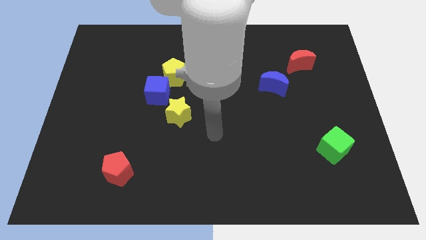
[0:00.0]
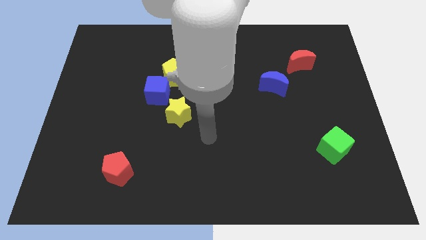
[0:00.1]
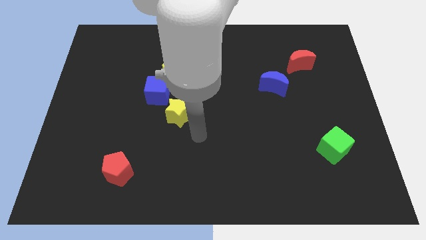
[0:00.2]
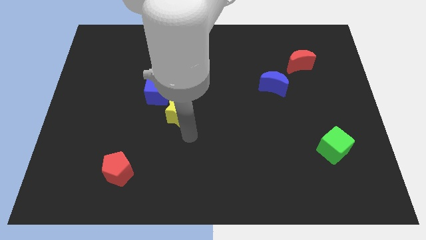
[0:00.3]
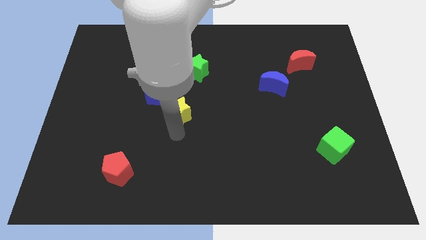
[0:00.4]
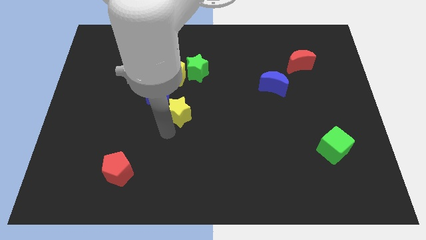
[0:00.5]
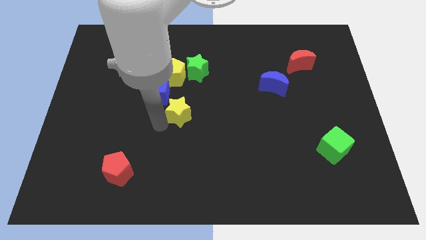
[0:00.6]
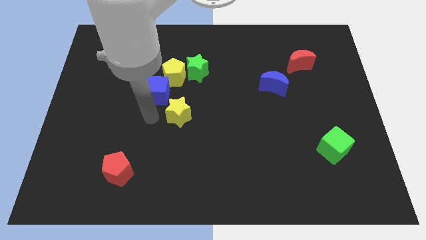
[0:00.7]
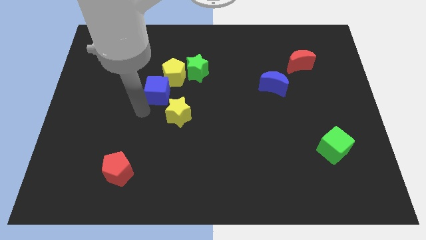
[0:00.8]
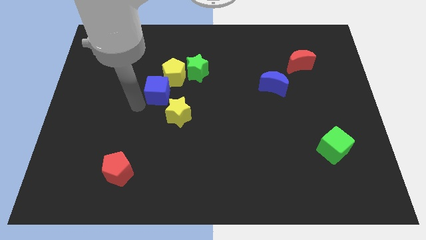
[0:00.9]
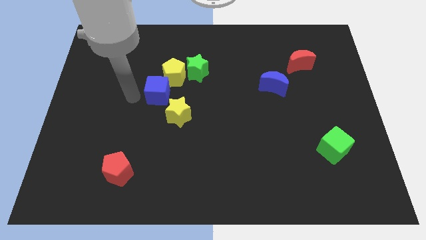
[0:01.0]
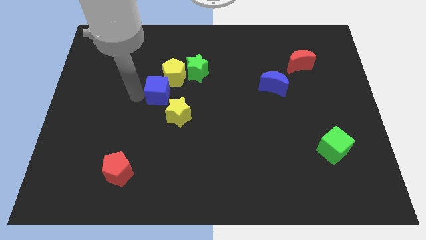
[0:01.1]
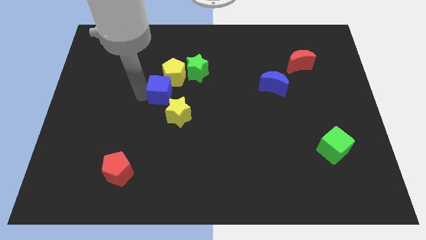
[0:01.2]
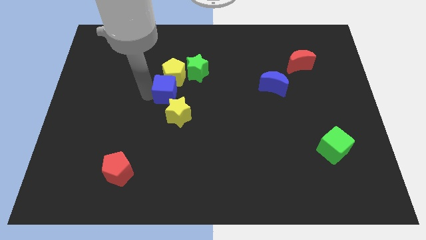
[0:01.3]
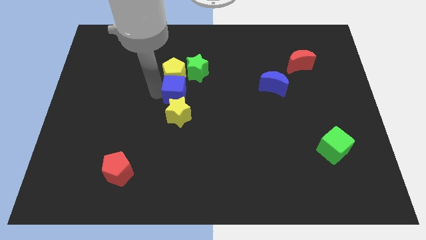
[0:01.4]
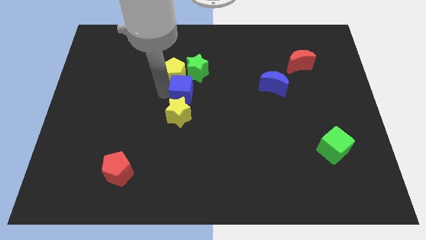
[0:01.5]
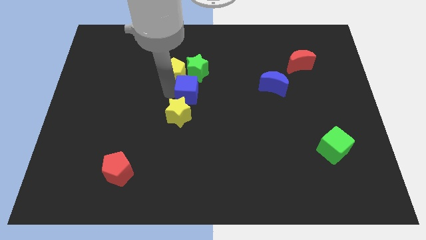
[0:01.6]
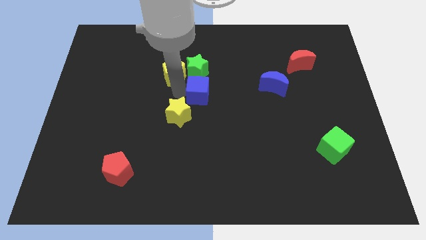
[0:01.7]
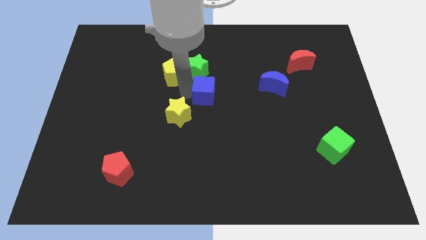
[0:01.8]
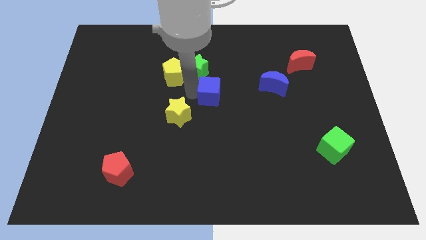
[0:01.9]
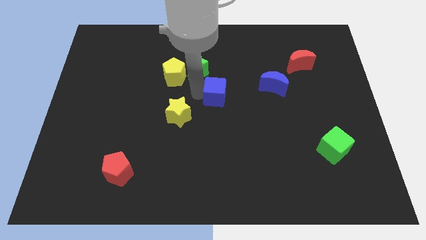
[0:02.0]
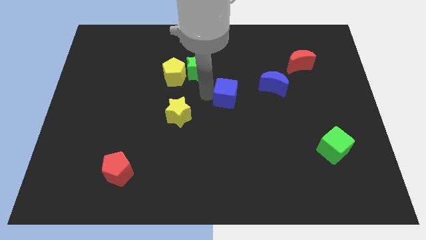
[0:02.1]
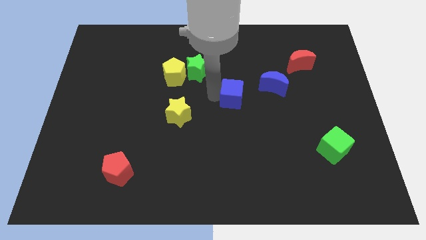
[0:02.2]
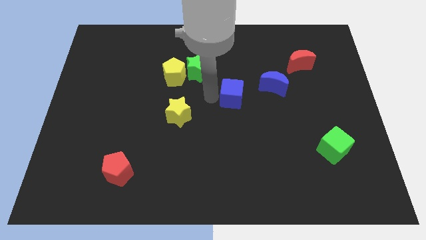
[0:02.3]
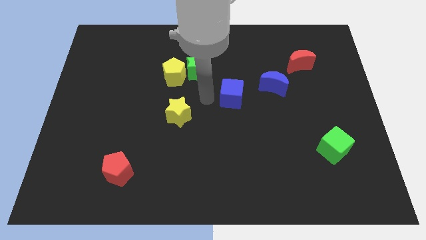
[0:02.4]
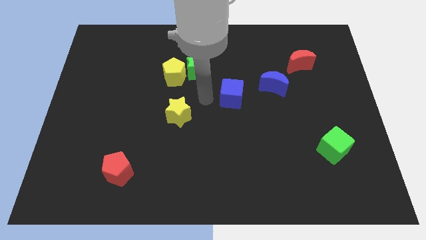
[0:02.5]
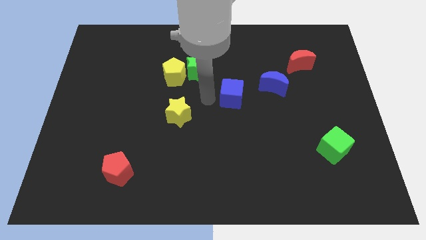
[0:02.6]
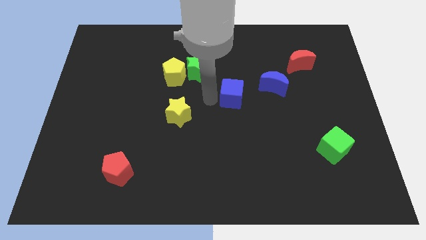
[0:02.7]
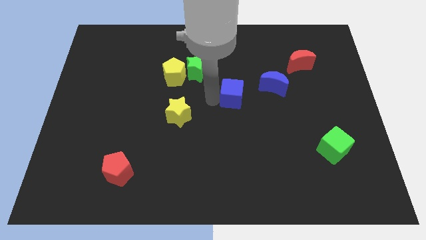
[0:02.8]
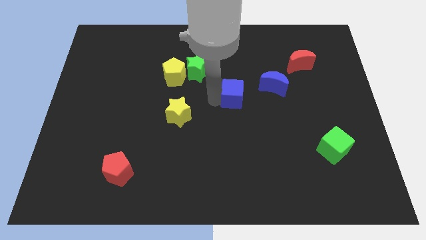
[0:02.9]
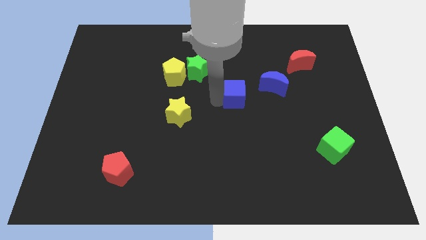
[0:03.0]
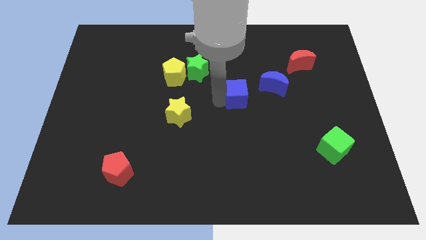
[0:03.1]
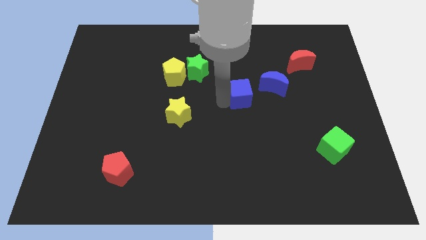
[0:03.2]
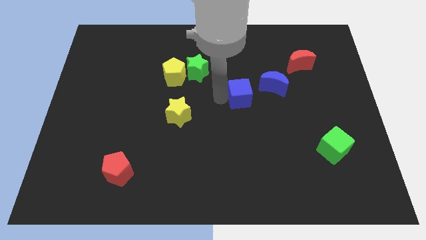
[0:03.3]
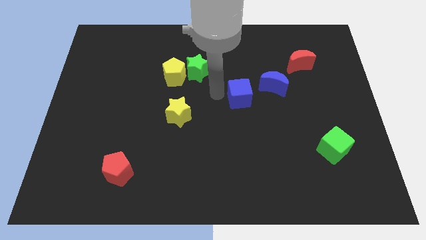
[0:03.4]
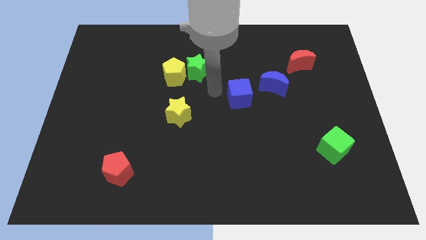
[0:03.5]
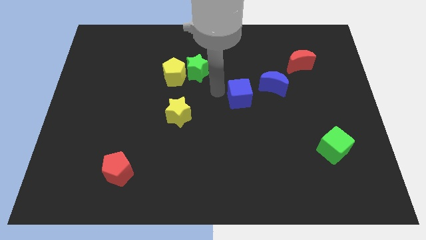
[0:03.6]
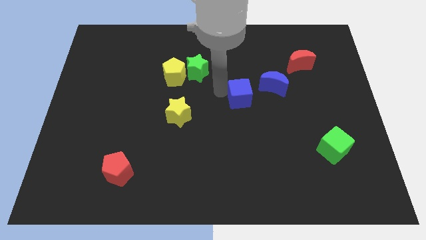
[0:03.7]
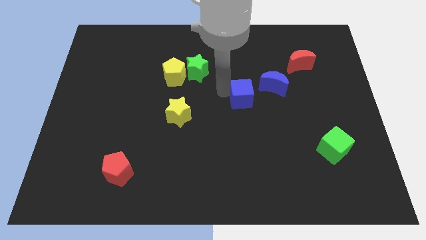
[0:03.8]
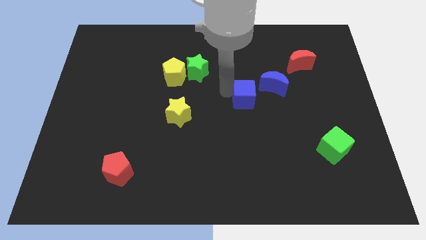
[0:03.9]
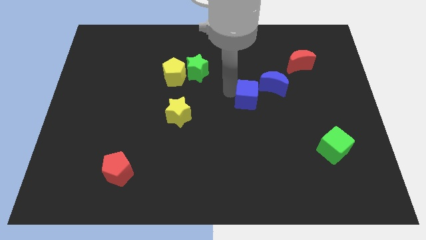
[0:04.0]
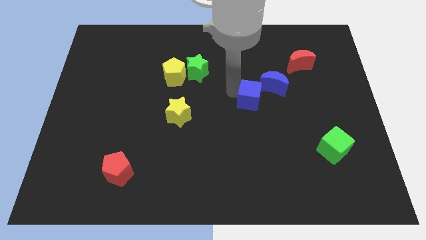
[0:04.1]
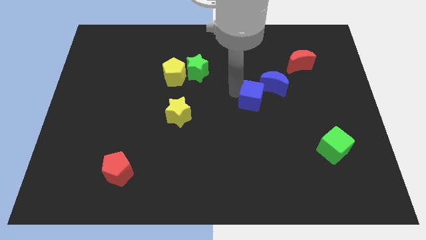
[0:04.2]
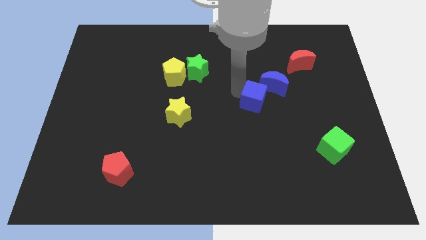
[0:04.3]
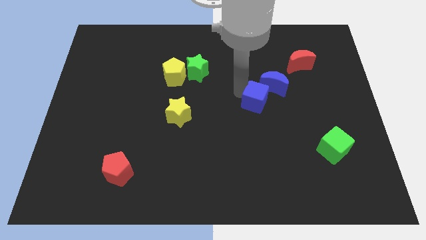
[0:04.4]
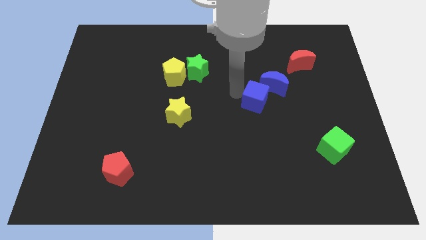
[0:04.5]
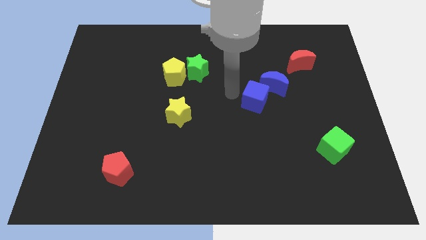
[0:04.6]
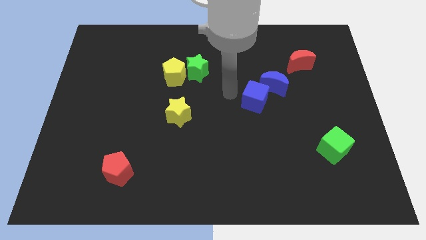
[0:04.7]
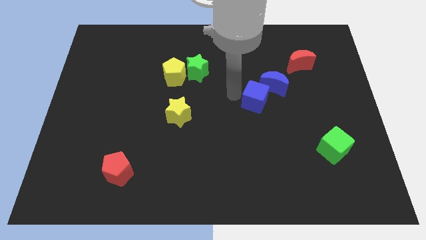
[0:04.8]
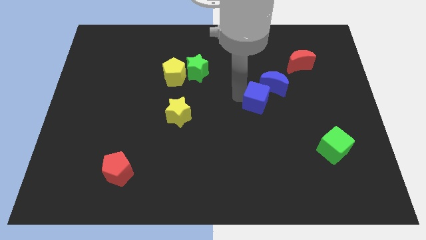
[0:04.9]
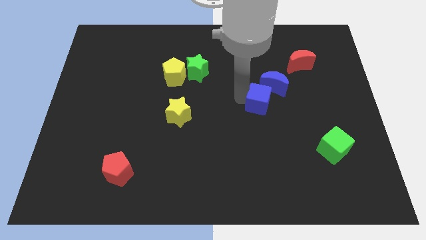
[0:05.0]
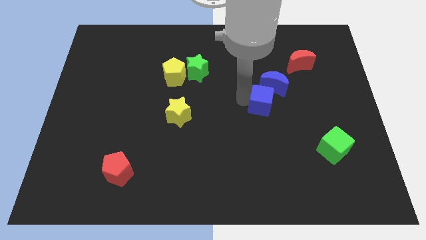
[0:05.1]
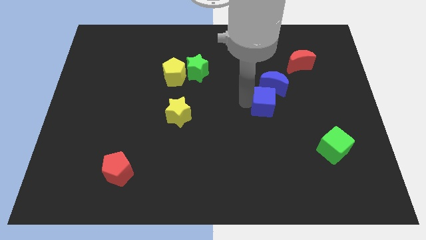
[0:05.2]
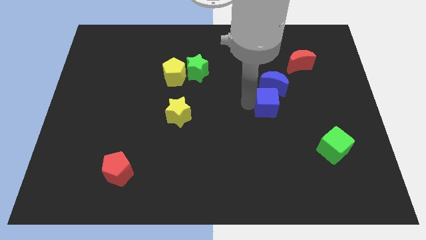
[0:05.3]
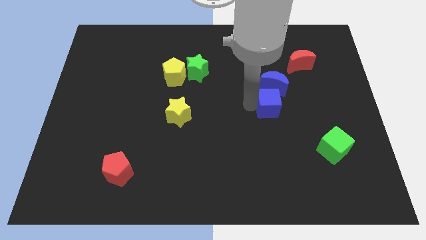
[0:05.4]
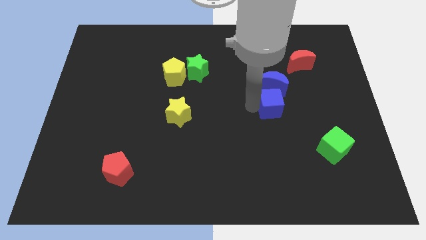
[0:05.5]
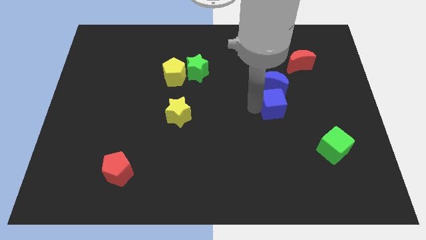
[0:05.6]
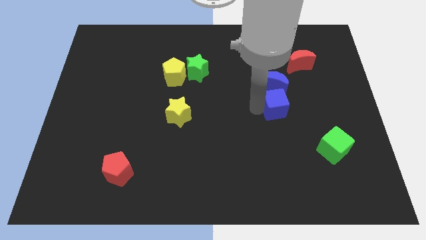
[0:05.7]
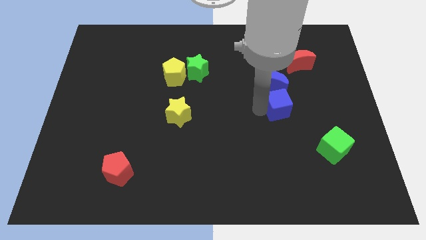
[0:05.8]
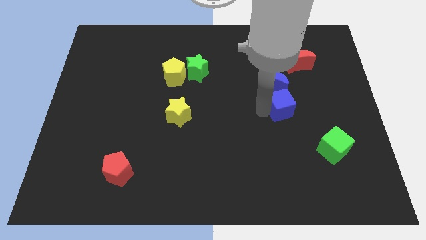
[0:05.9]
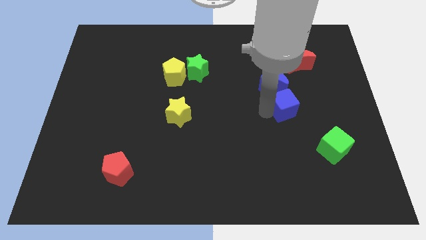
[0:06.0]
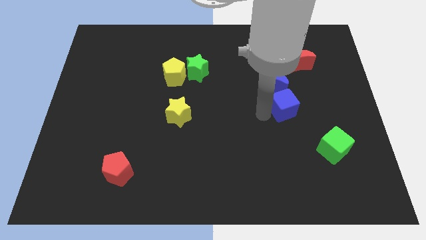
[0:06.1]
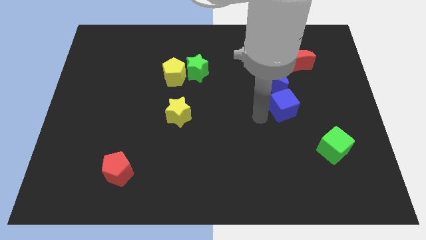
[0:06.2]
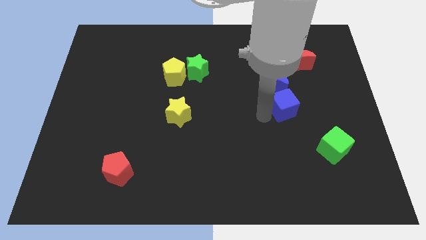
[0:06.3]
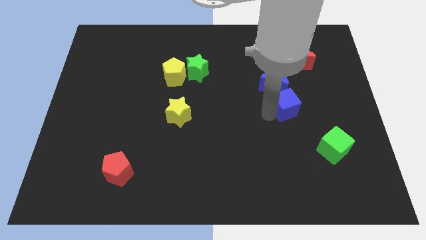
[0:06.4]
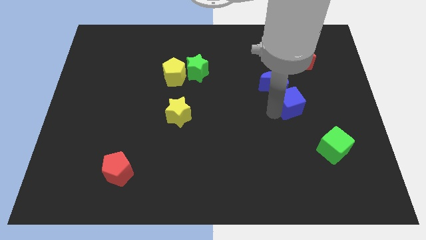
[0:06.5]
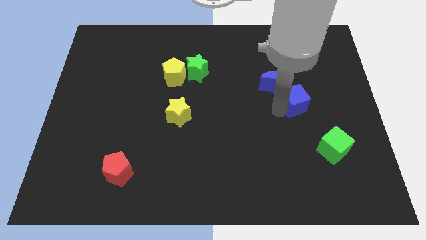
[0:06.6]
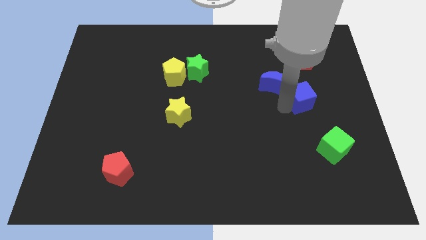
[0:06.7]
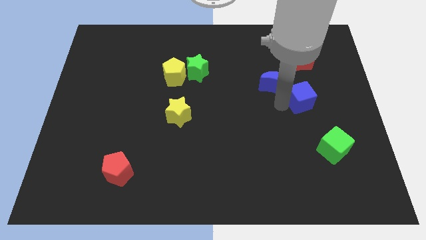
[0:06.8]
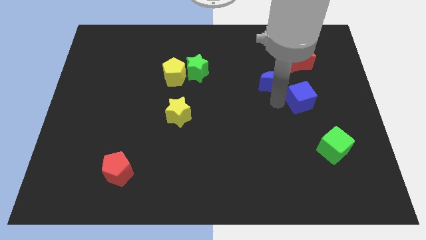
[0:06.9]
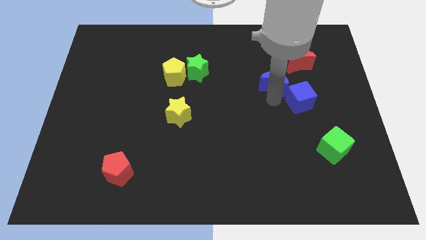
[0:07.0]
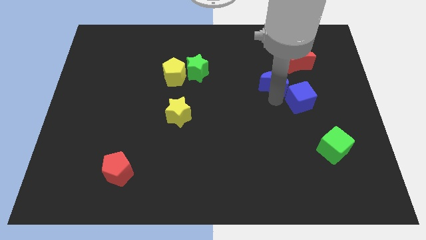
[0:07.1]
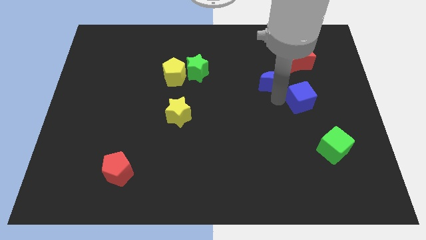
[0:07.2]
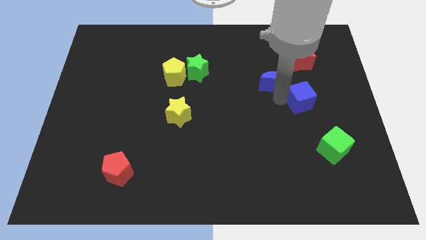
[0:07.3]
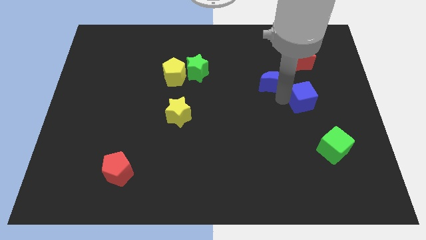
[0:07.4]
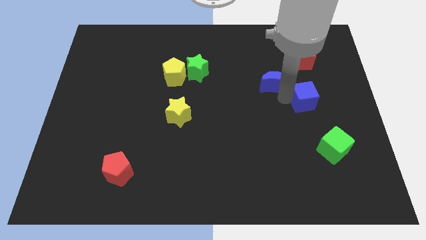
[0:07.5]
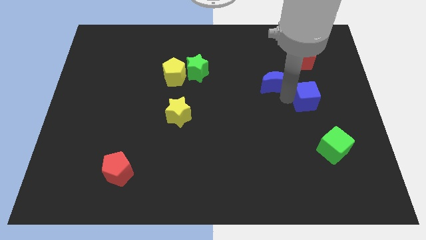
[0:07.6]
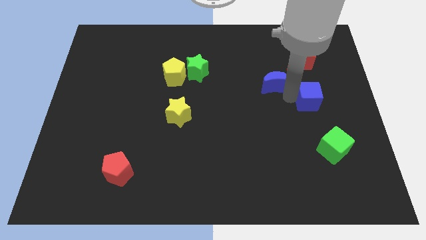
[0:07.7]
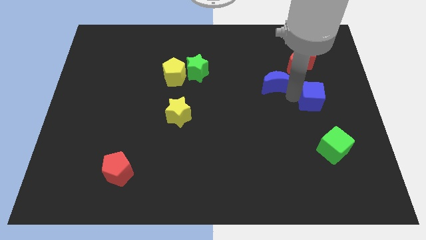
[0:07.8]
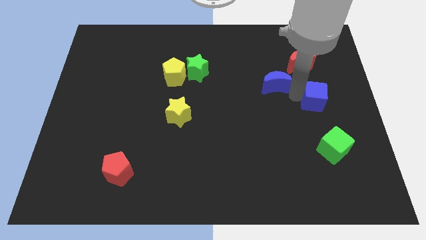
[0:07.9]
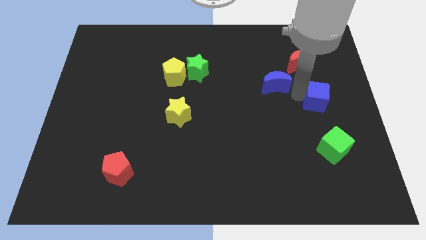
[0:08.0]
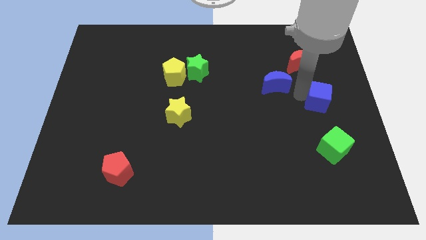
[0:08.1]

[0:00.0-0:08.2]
put the blue cube to the right side
